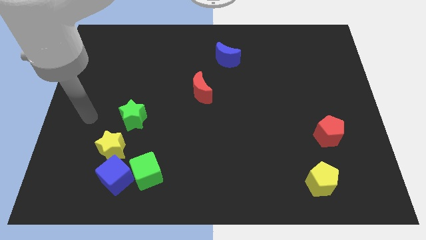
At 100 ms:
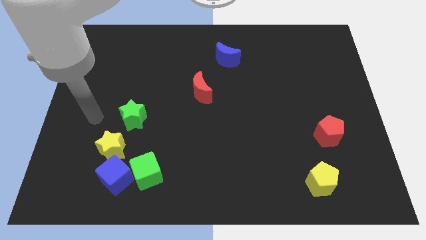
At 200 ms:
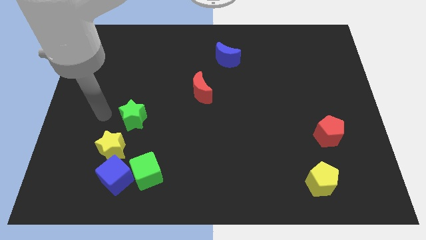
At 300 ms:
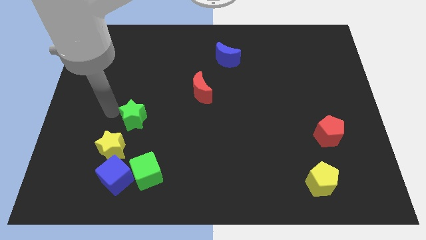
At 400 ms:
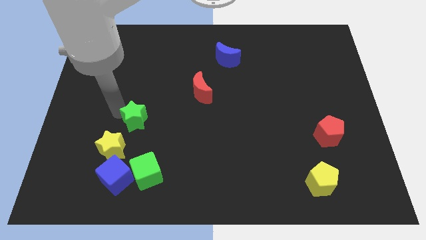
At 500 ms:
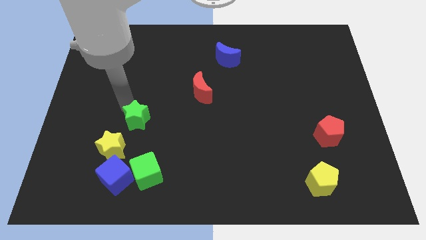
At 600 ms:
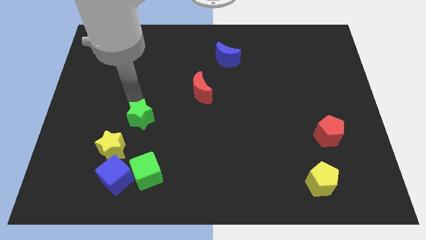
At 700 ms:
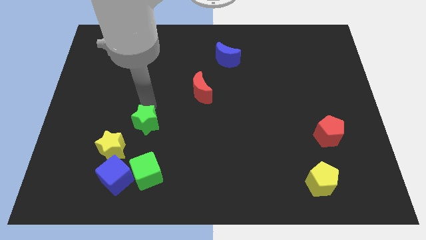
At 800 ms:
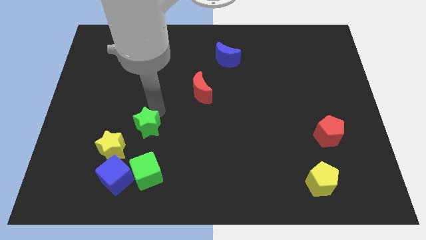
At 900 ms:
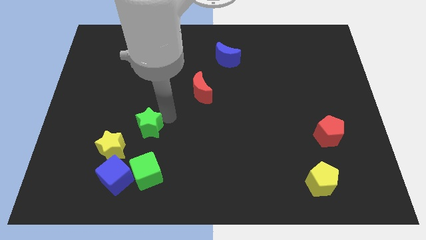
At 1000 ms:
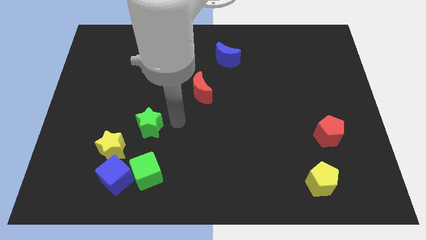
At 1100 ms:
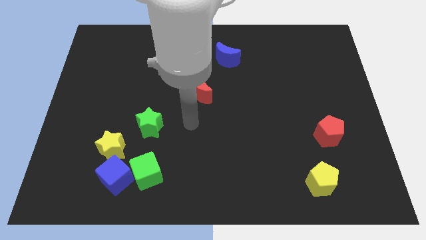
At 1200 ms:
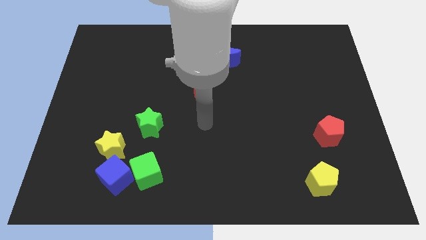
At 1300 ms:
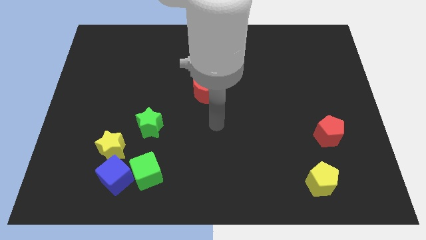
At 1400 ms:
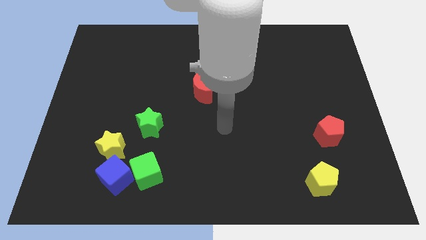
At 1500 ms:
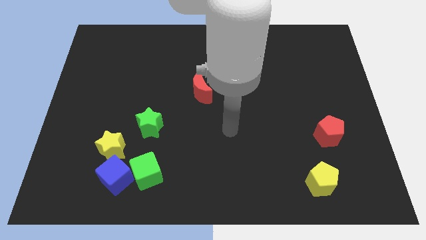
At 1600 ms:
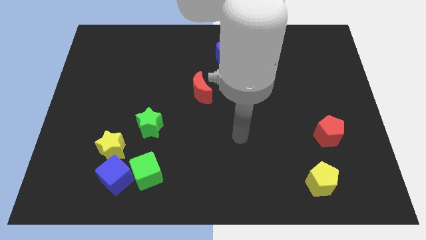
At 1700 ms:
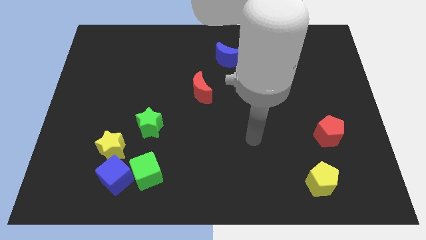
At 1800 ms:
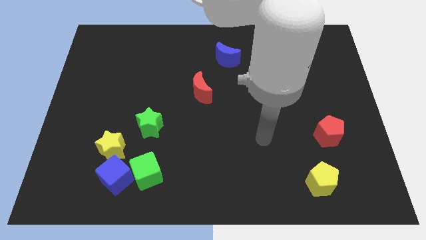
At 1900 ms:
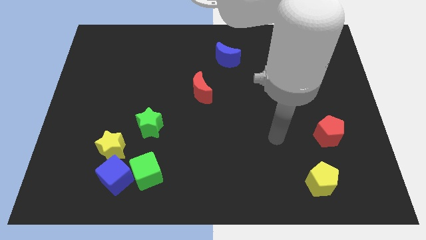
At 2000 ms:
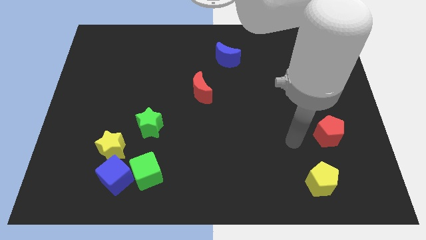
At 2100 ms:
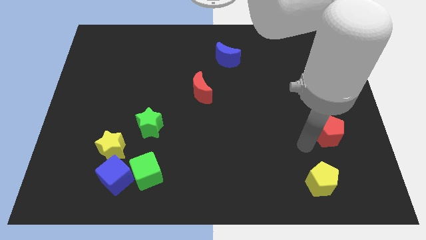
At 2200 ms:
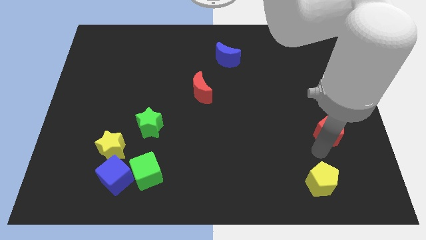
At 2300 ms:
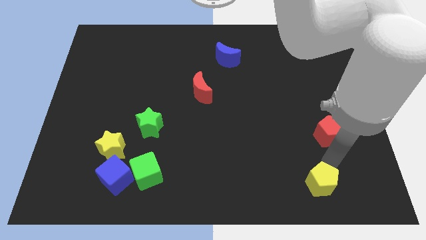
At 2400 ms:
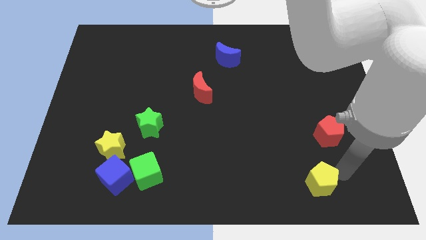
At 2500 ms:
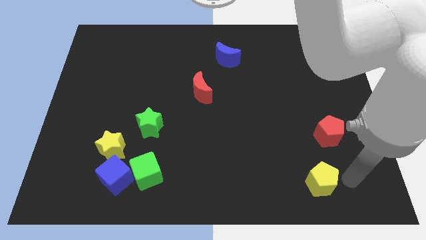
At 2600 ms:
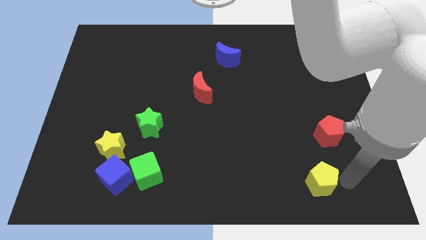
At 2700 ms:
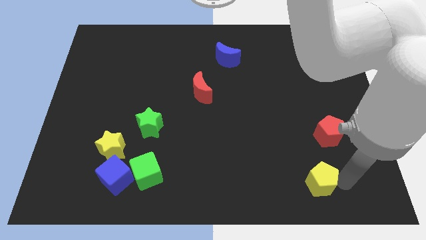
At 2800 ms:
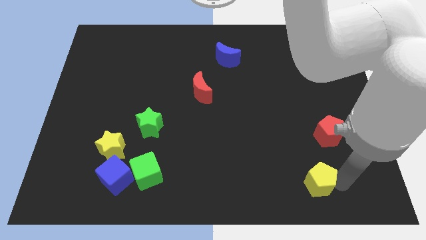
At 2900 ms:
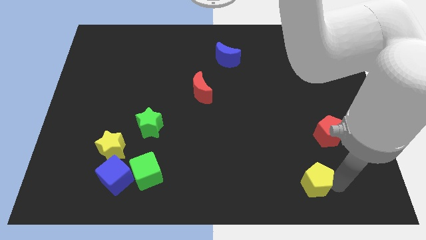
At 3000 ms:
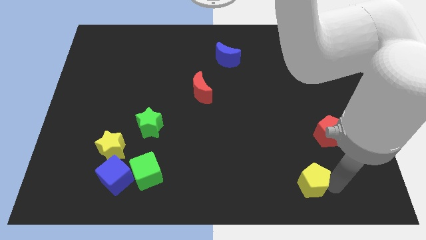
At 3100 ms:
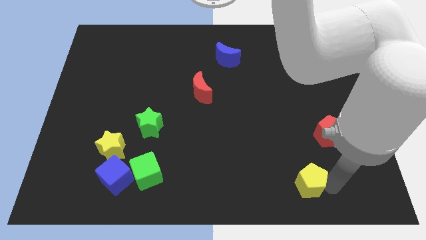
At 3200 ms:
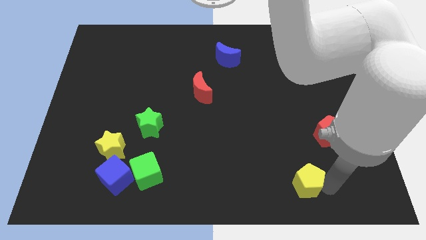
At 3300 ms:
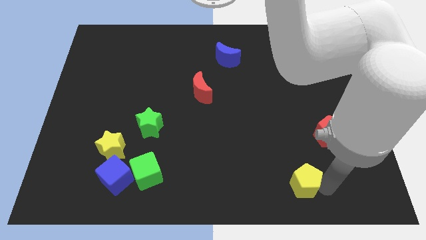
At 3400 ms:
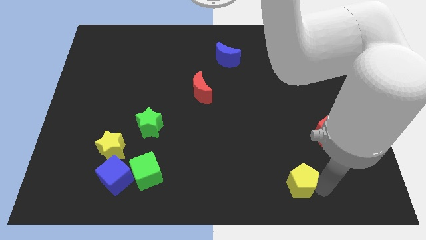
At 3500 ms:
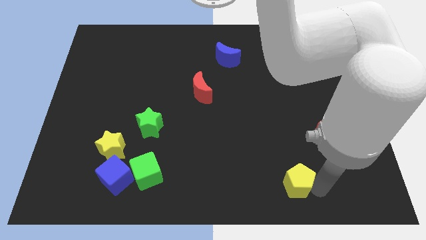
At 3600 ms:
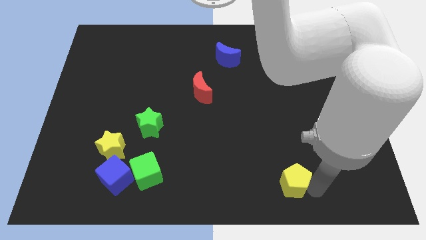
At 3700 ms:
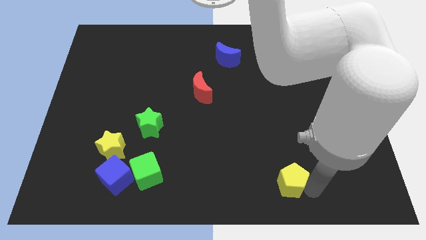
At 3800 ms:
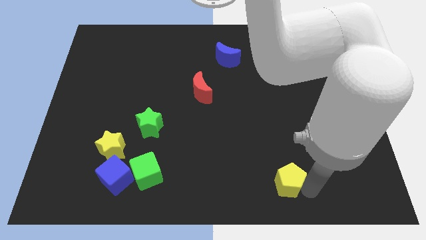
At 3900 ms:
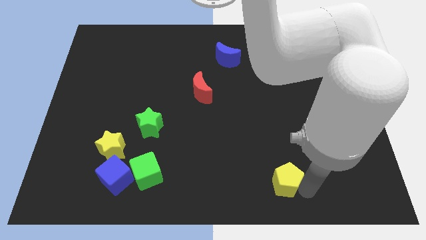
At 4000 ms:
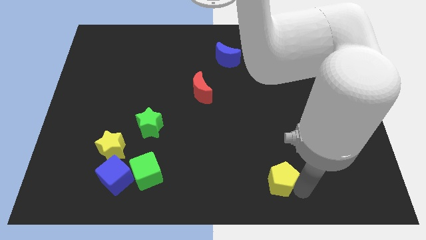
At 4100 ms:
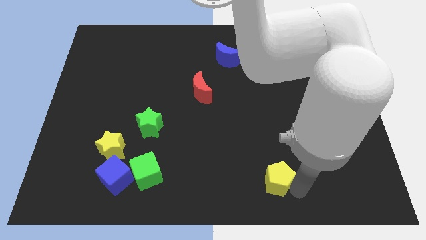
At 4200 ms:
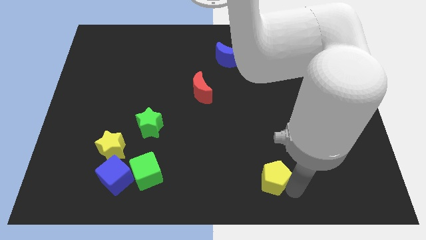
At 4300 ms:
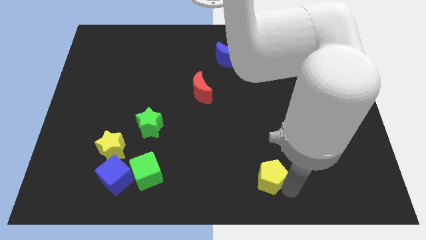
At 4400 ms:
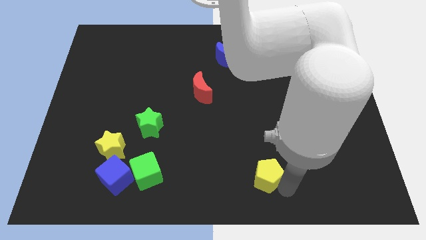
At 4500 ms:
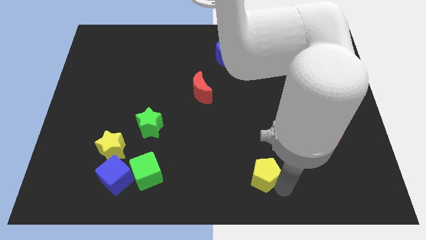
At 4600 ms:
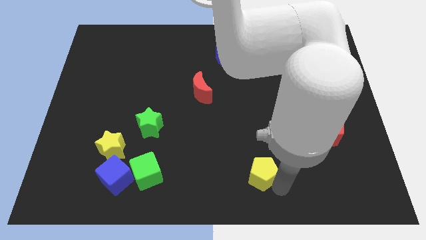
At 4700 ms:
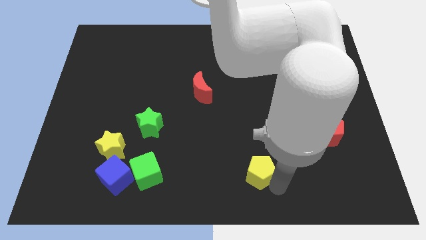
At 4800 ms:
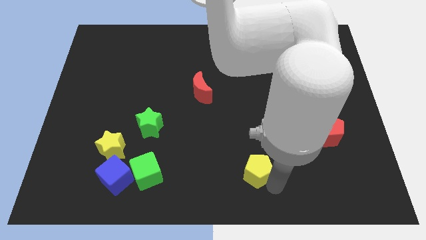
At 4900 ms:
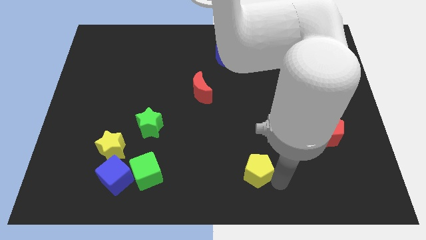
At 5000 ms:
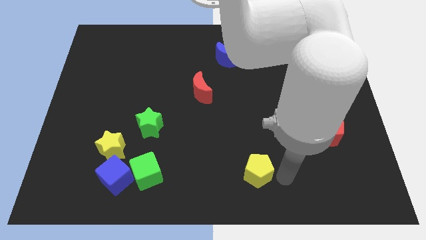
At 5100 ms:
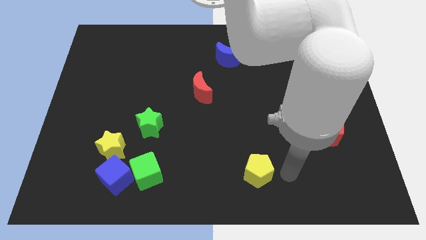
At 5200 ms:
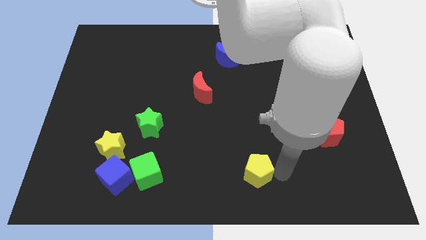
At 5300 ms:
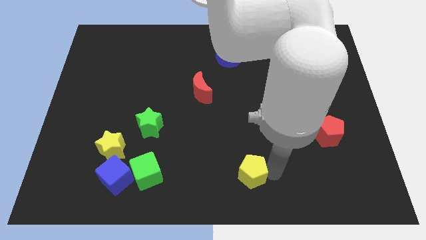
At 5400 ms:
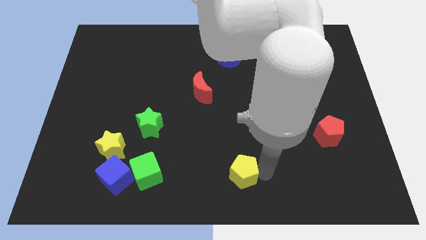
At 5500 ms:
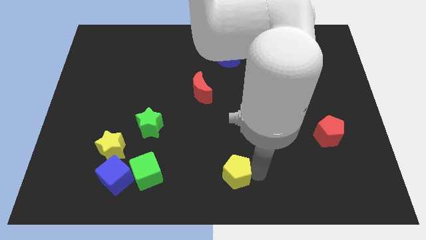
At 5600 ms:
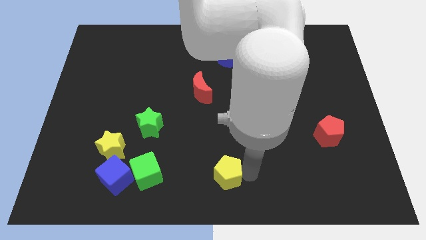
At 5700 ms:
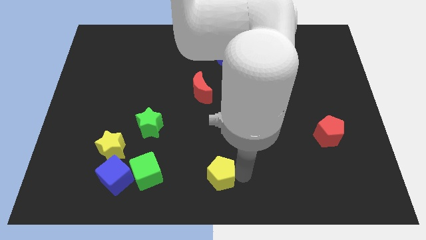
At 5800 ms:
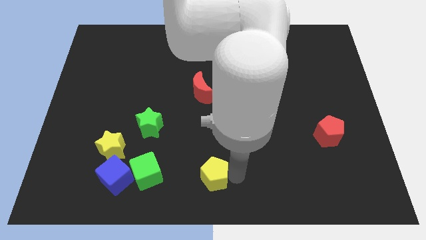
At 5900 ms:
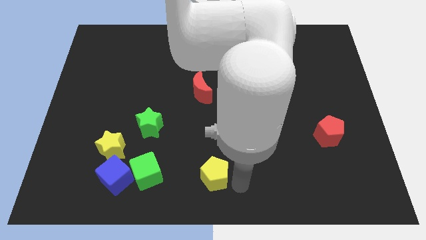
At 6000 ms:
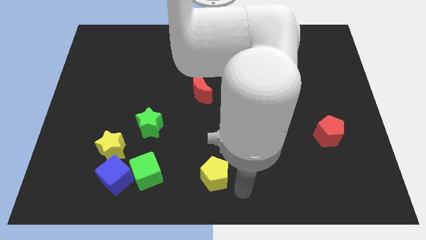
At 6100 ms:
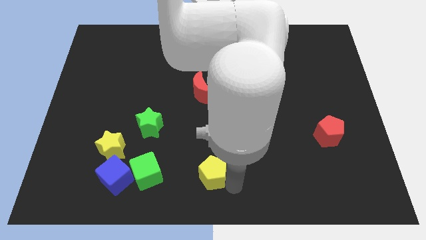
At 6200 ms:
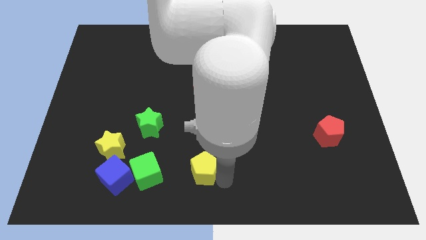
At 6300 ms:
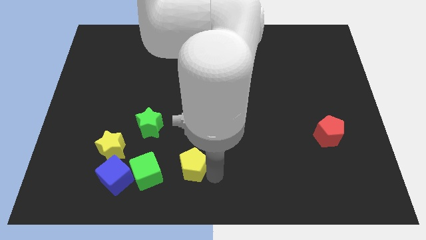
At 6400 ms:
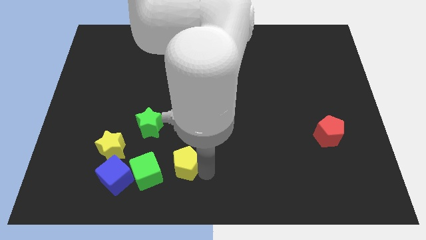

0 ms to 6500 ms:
push the yellow pentagon diagonally up and to the right of the green cube

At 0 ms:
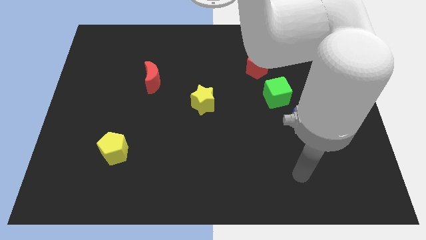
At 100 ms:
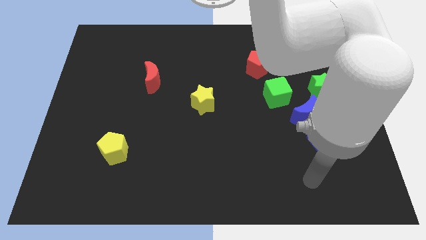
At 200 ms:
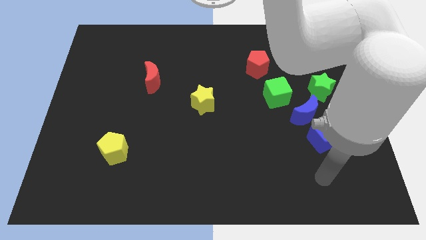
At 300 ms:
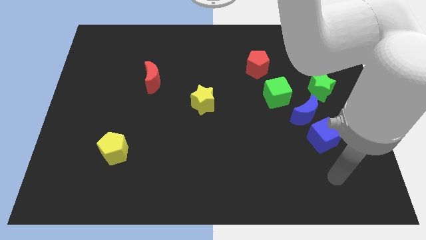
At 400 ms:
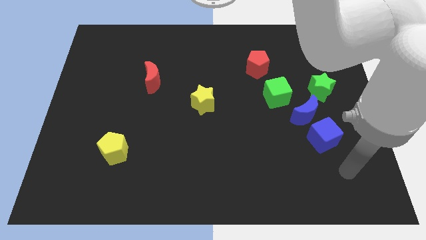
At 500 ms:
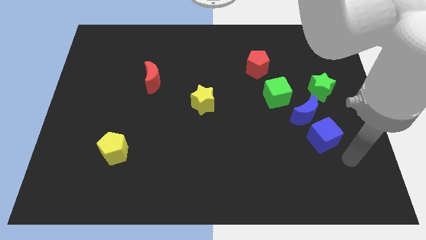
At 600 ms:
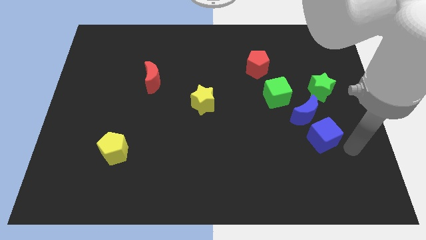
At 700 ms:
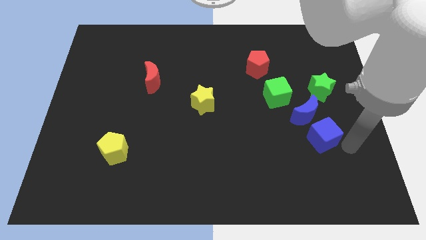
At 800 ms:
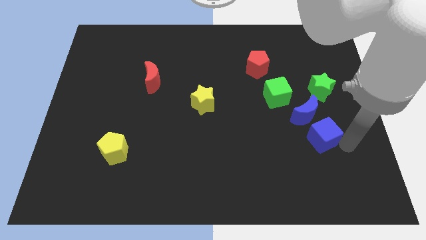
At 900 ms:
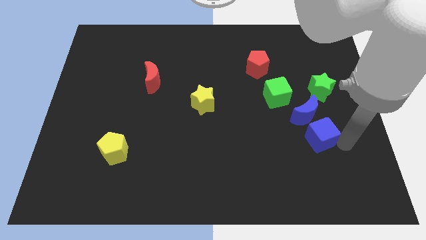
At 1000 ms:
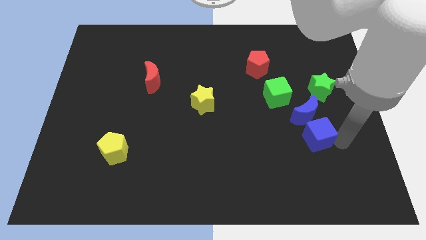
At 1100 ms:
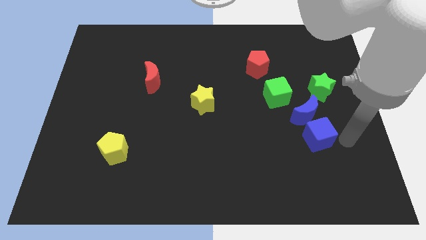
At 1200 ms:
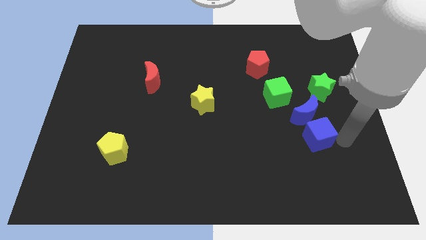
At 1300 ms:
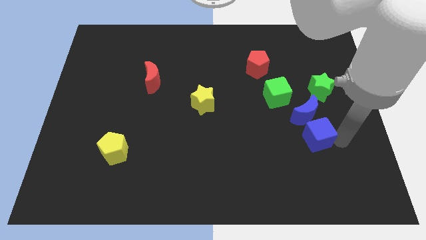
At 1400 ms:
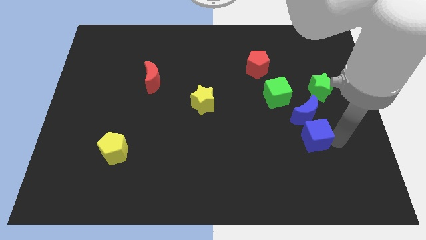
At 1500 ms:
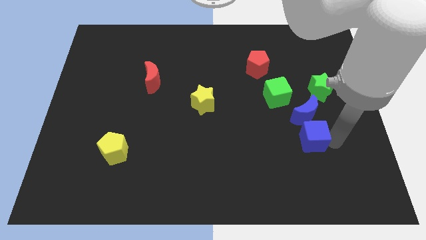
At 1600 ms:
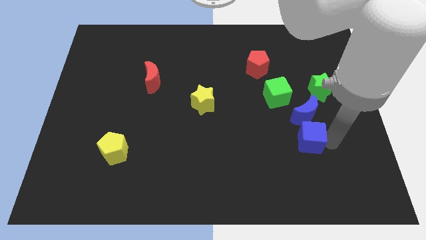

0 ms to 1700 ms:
push the blue cube diagonally down and to the left of the blue moon
